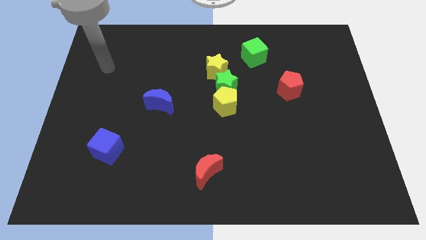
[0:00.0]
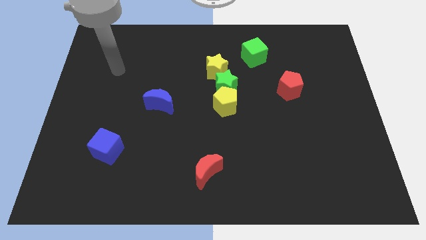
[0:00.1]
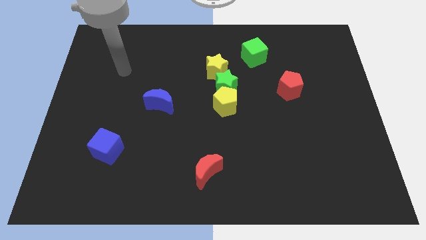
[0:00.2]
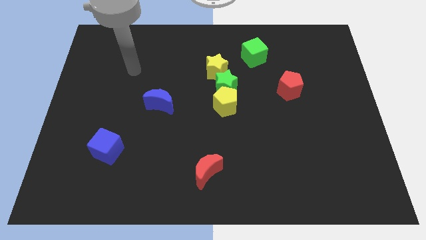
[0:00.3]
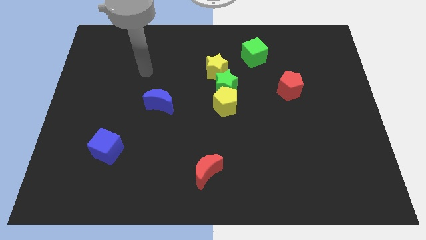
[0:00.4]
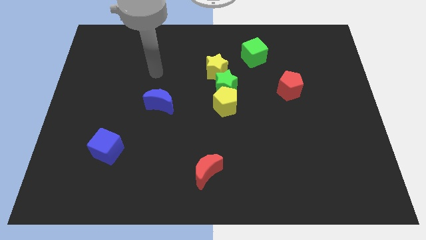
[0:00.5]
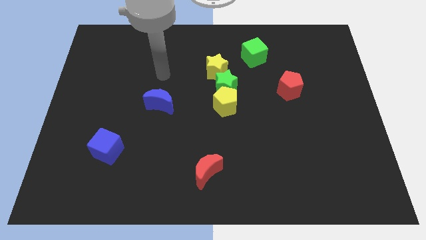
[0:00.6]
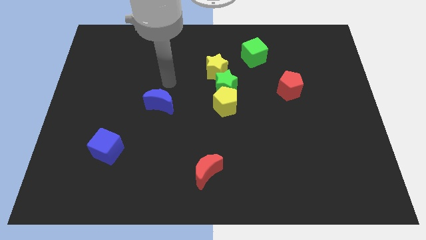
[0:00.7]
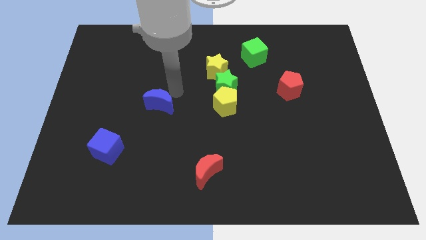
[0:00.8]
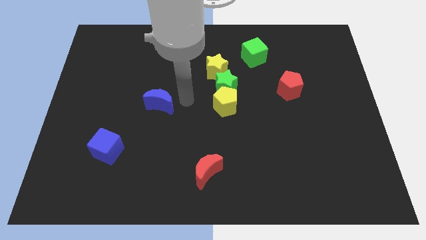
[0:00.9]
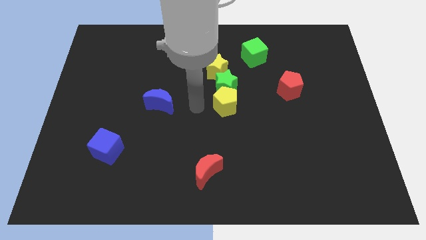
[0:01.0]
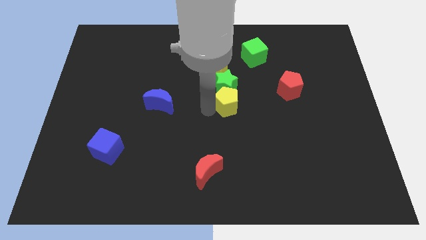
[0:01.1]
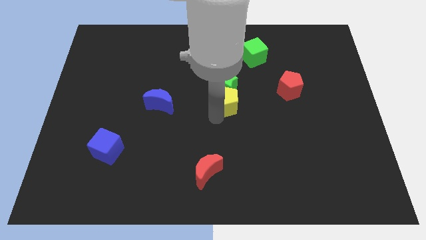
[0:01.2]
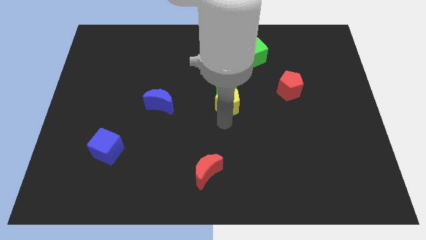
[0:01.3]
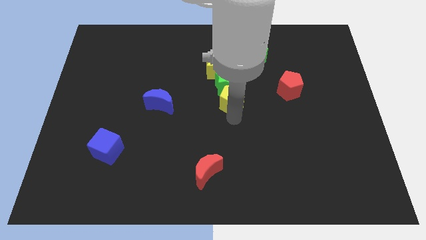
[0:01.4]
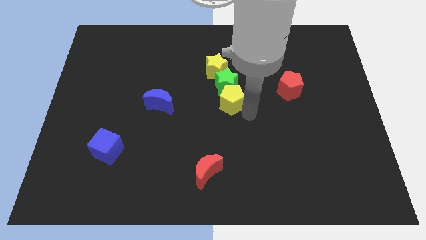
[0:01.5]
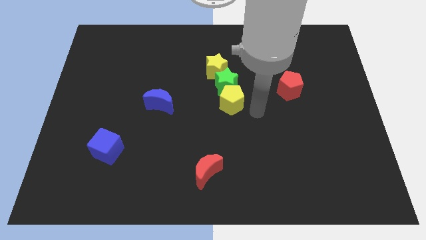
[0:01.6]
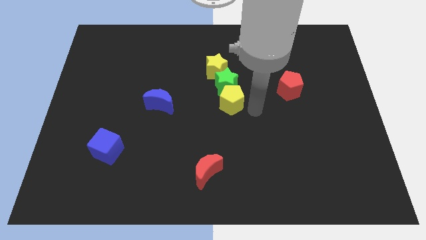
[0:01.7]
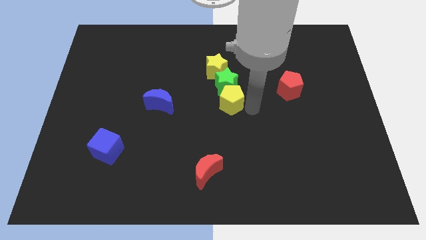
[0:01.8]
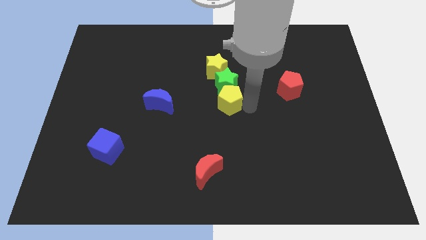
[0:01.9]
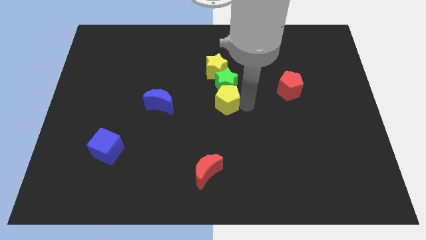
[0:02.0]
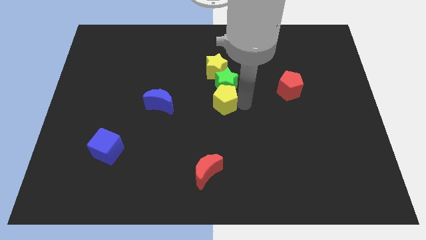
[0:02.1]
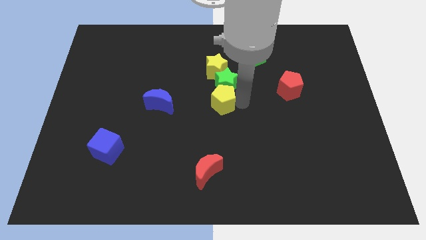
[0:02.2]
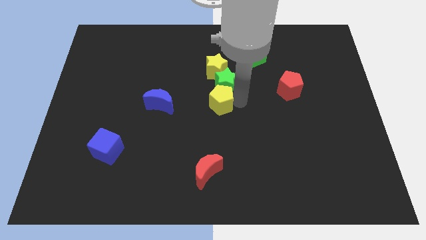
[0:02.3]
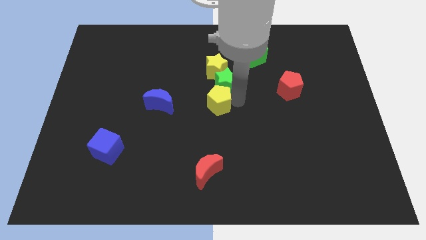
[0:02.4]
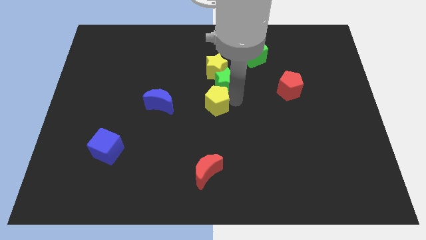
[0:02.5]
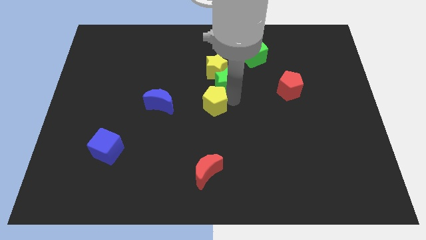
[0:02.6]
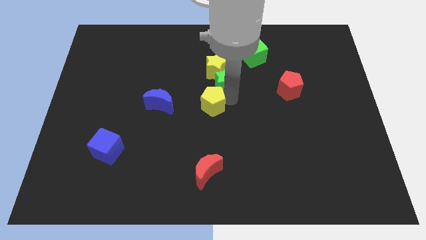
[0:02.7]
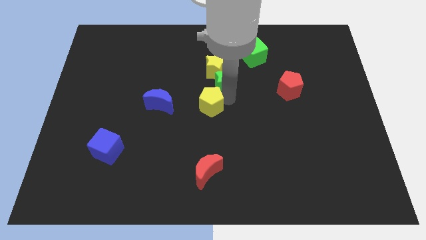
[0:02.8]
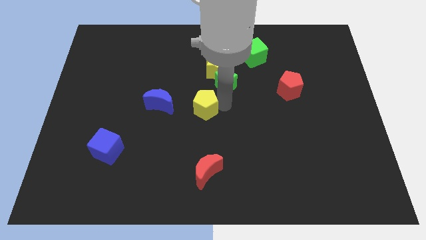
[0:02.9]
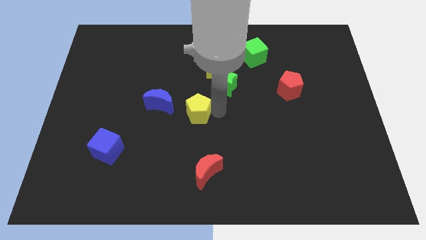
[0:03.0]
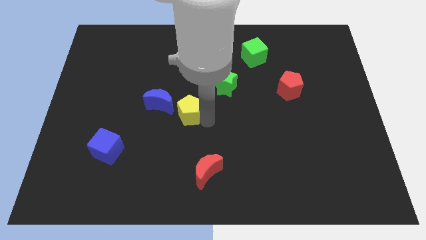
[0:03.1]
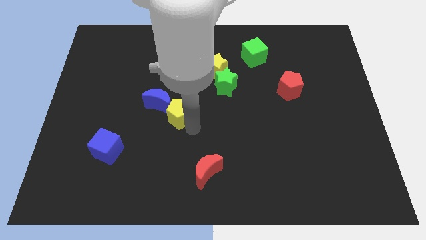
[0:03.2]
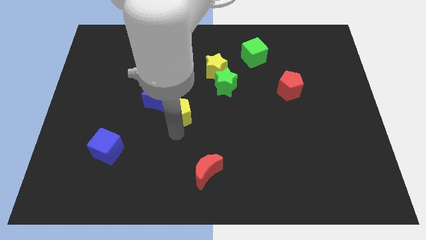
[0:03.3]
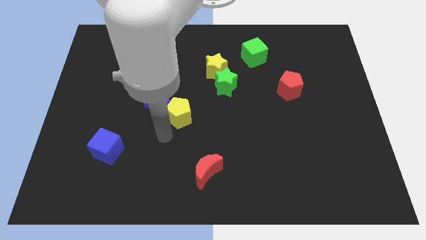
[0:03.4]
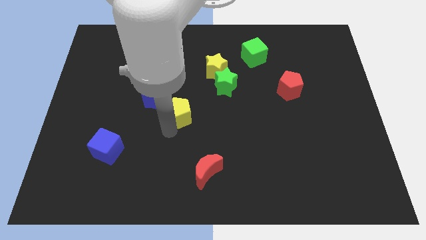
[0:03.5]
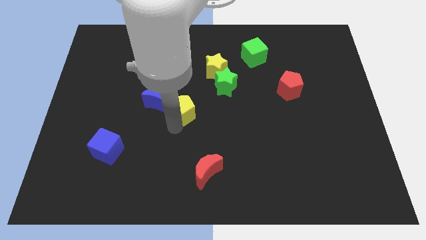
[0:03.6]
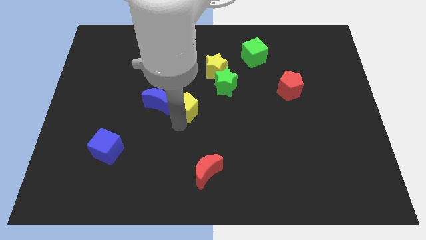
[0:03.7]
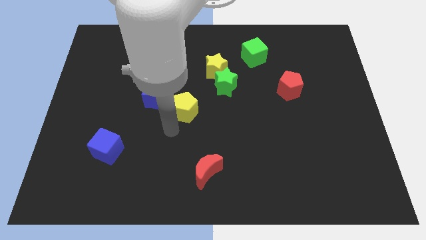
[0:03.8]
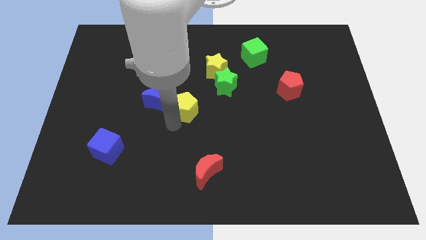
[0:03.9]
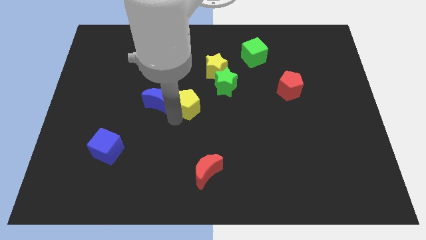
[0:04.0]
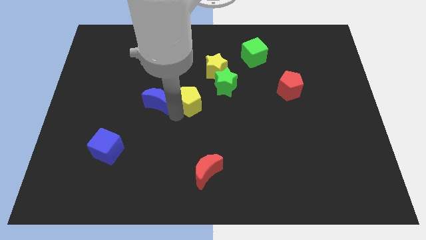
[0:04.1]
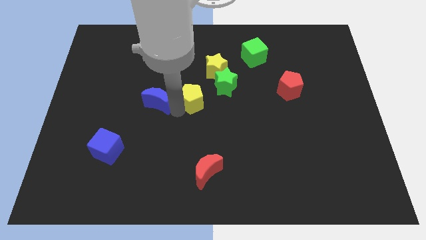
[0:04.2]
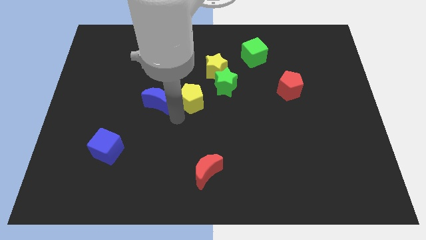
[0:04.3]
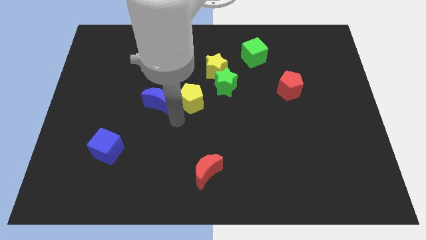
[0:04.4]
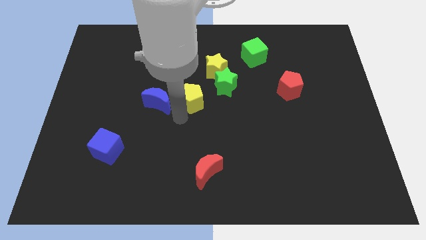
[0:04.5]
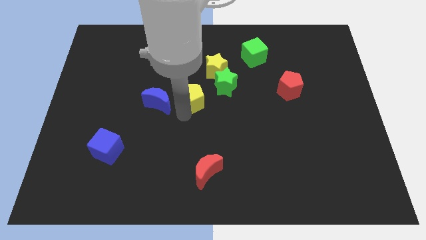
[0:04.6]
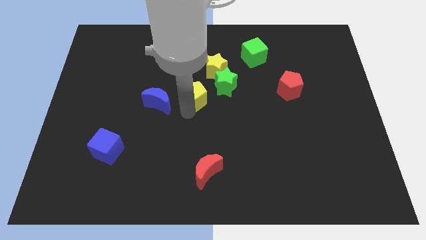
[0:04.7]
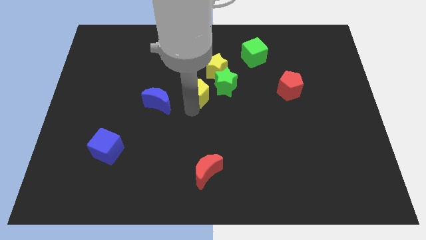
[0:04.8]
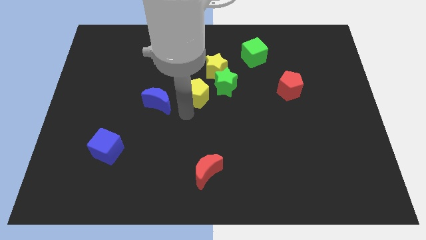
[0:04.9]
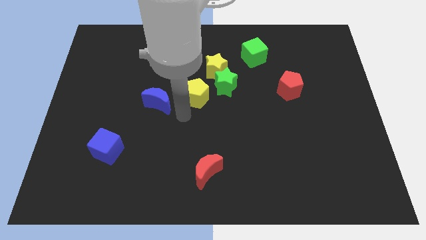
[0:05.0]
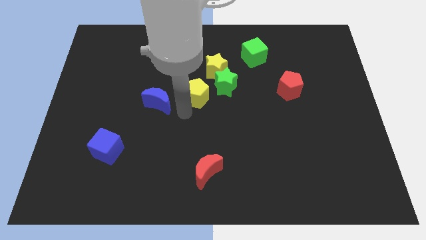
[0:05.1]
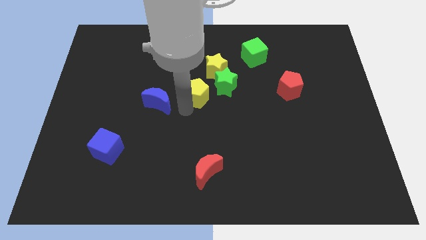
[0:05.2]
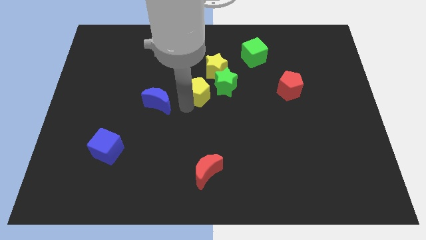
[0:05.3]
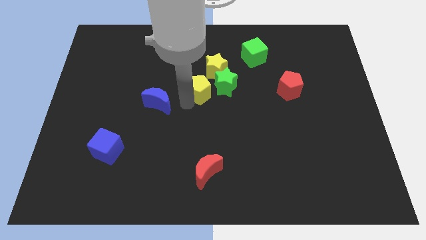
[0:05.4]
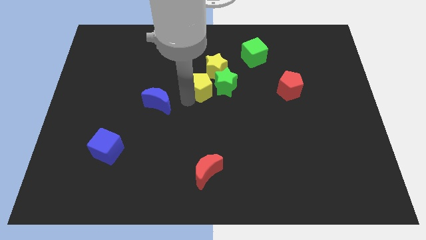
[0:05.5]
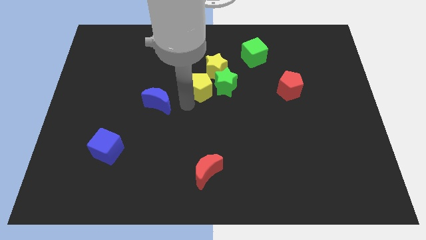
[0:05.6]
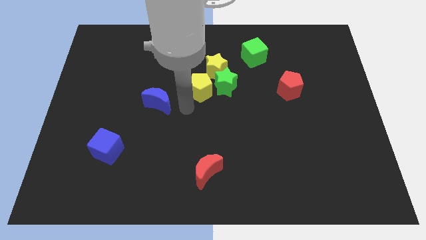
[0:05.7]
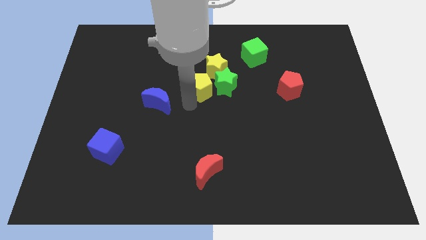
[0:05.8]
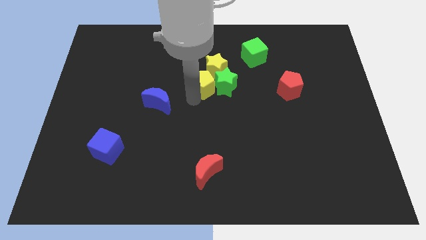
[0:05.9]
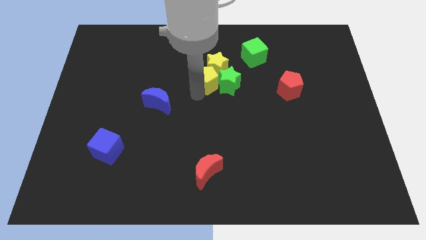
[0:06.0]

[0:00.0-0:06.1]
move the yellow pentagon to the yellow star

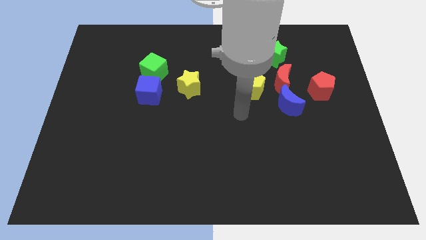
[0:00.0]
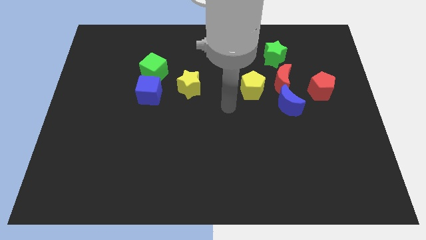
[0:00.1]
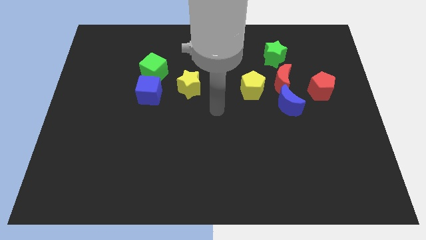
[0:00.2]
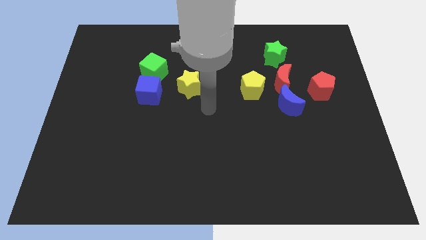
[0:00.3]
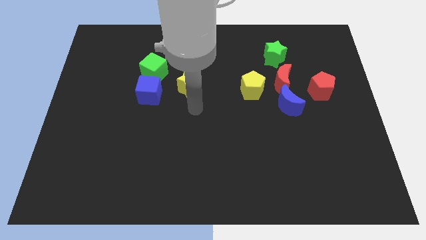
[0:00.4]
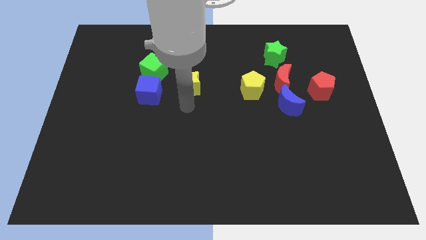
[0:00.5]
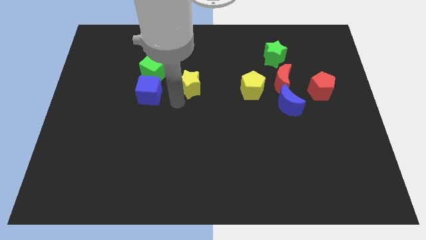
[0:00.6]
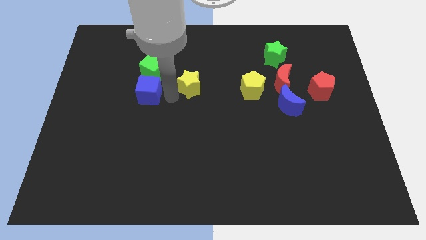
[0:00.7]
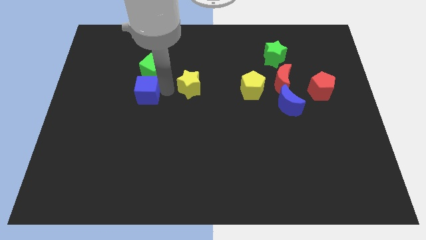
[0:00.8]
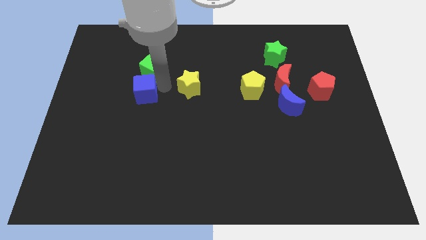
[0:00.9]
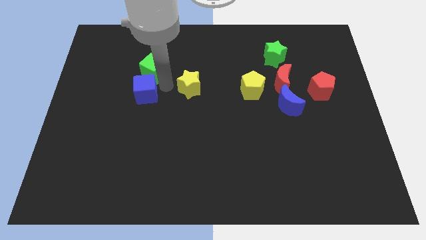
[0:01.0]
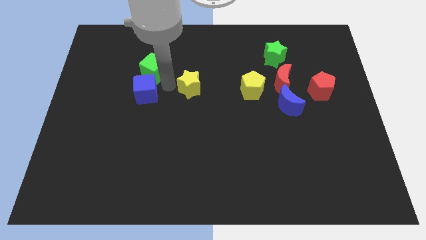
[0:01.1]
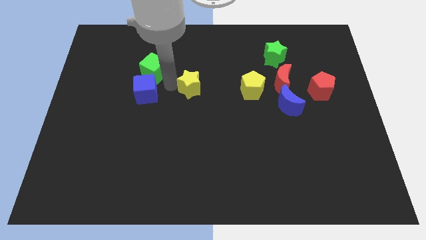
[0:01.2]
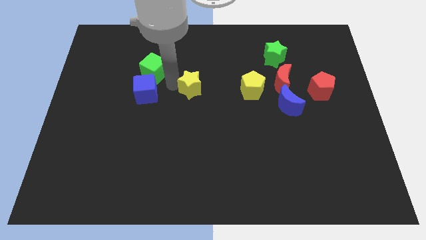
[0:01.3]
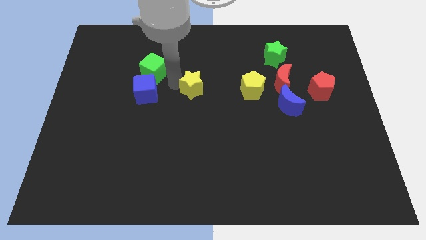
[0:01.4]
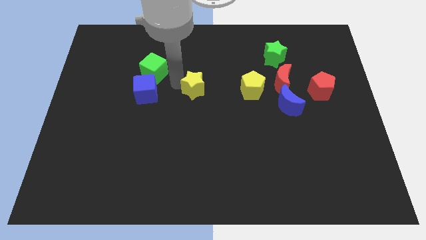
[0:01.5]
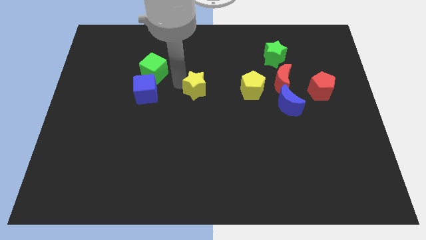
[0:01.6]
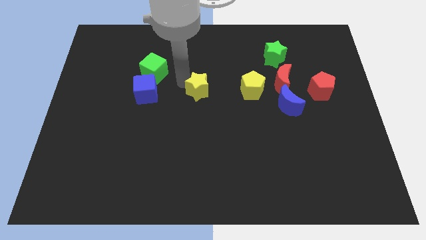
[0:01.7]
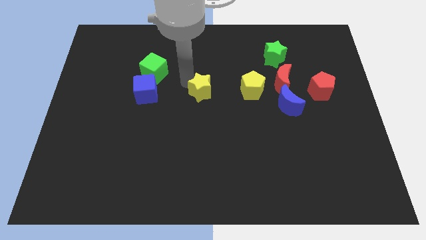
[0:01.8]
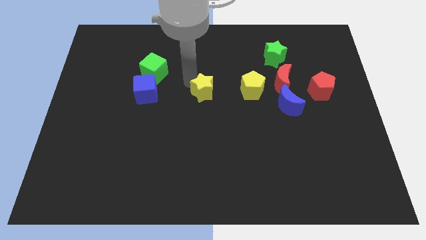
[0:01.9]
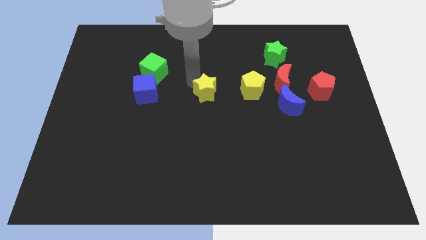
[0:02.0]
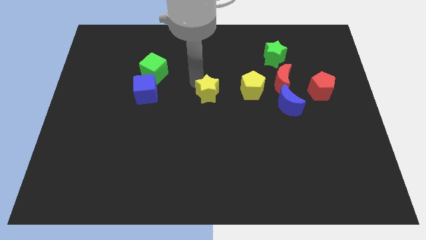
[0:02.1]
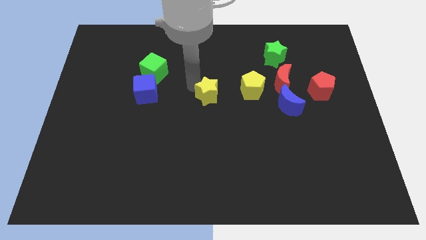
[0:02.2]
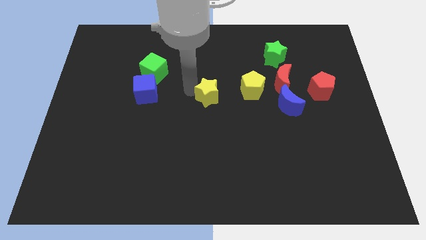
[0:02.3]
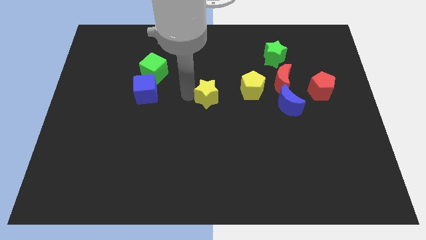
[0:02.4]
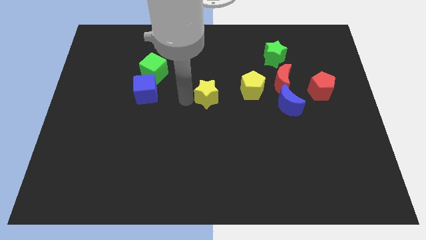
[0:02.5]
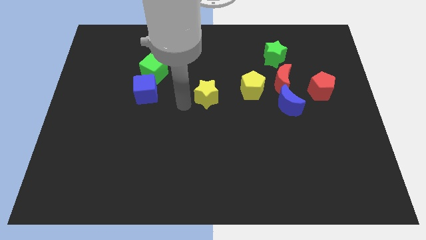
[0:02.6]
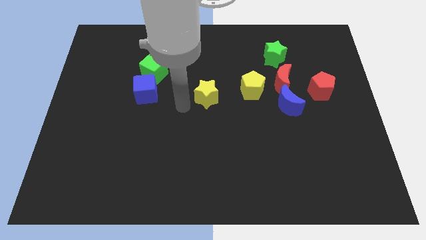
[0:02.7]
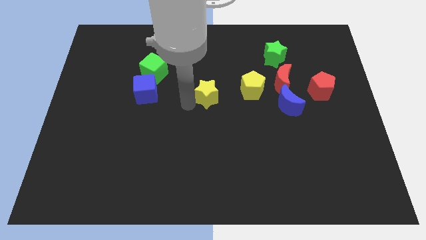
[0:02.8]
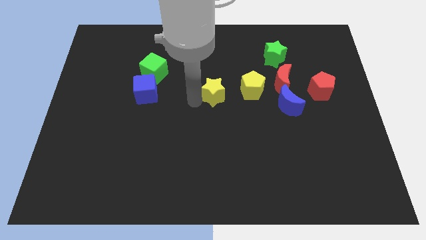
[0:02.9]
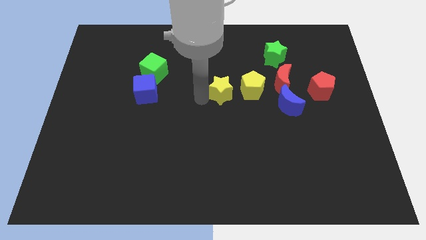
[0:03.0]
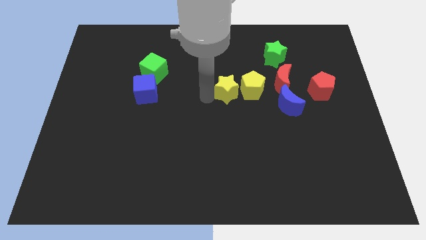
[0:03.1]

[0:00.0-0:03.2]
push the yellow star towards the yellow pentagon
